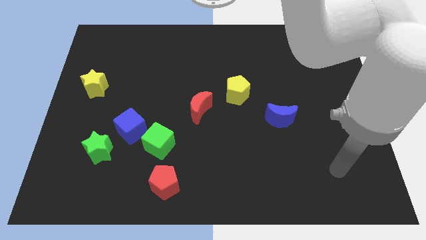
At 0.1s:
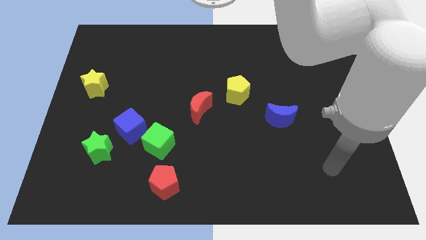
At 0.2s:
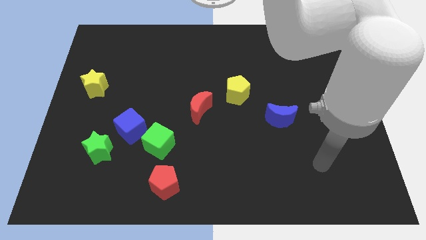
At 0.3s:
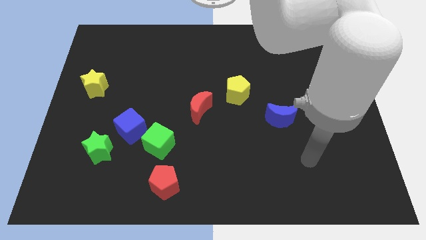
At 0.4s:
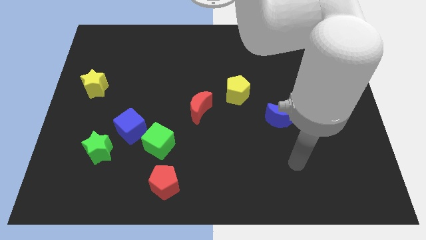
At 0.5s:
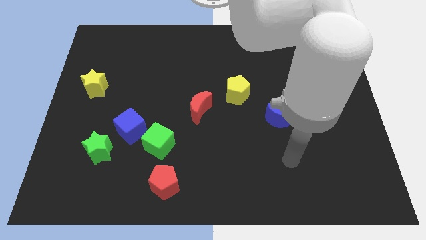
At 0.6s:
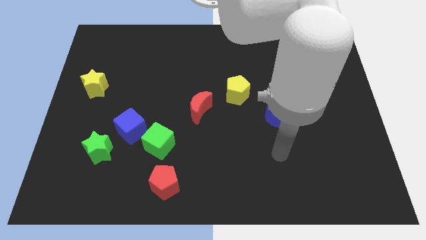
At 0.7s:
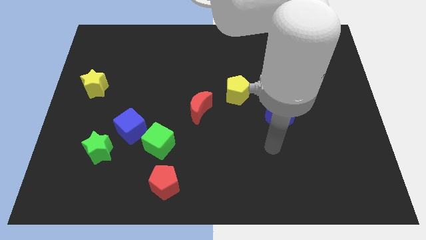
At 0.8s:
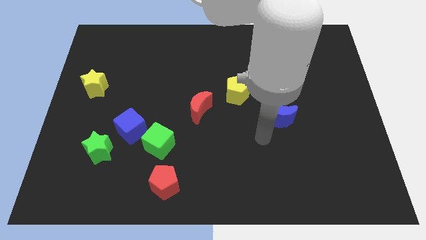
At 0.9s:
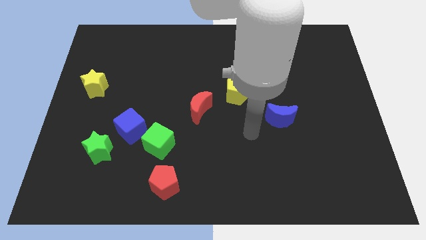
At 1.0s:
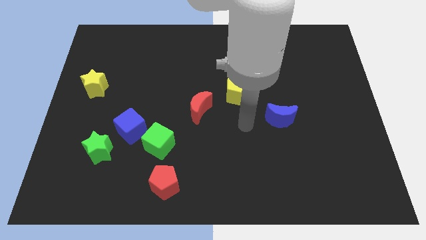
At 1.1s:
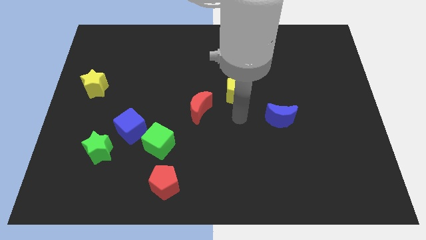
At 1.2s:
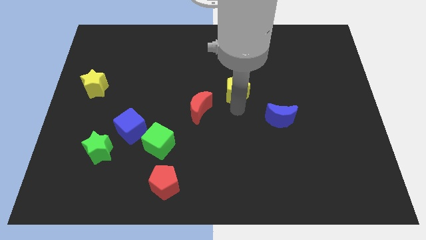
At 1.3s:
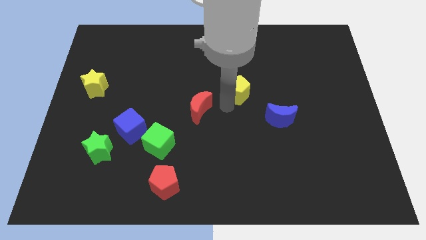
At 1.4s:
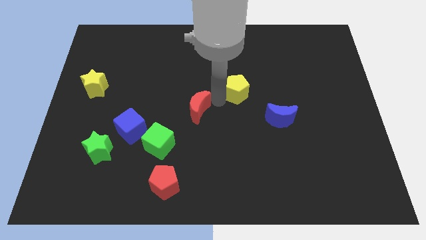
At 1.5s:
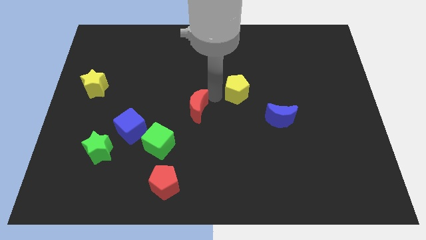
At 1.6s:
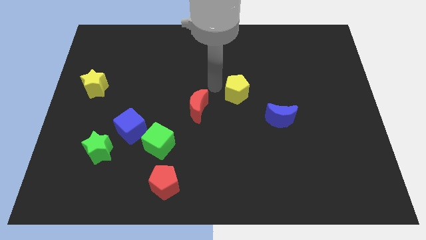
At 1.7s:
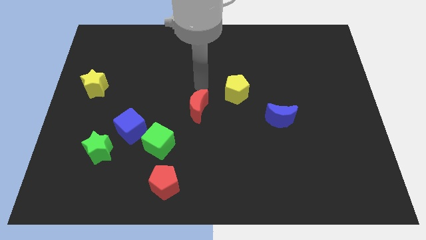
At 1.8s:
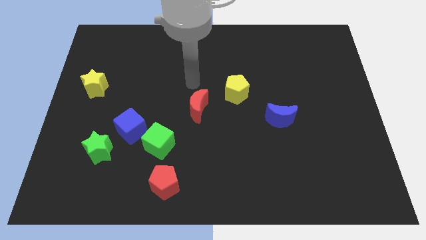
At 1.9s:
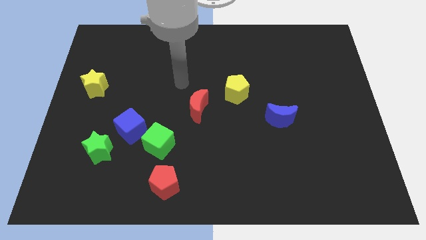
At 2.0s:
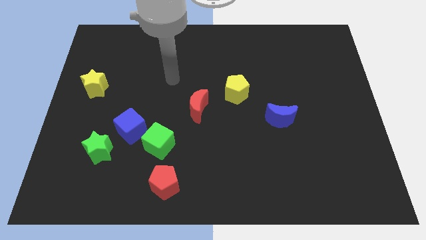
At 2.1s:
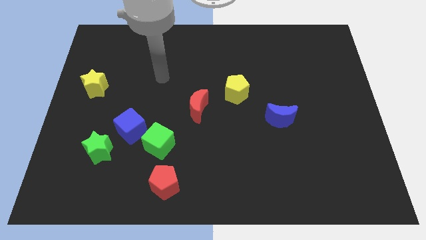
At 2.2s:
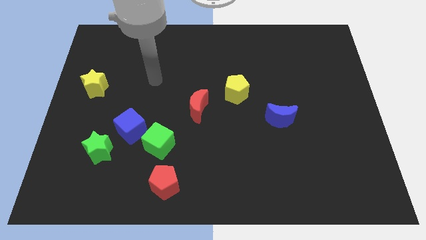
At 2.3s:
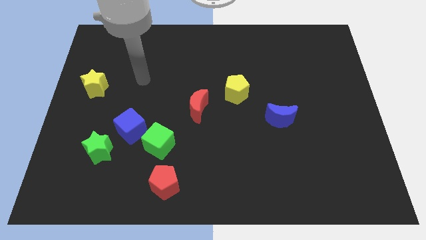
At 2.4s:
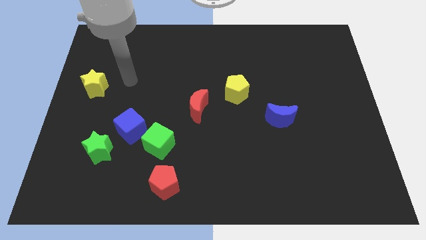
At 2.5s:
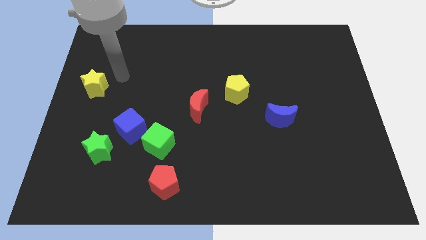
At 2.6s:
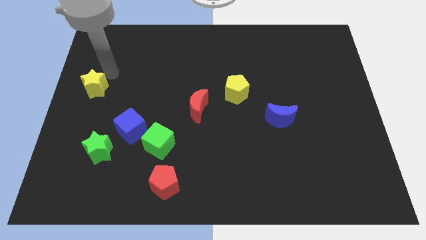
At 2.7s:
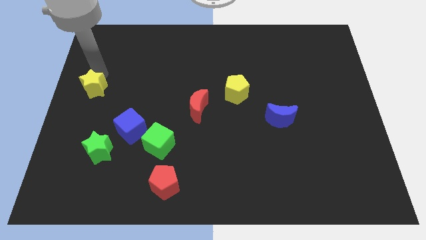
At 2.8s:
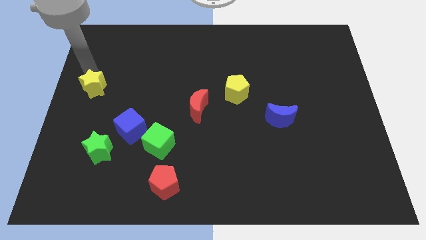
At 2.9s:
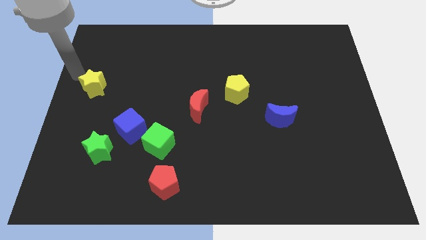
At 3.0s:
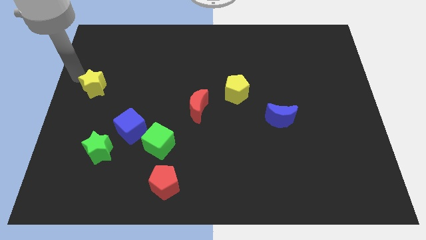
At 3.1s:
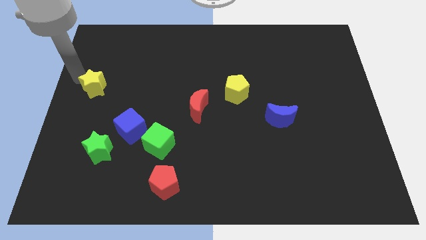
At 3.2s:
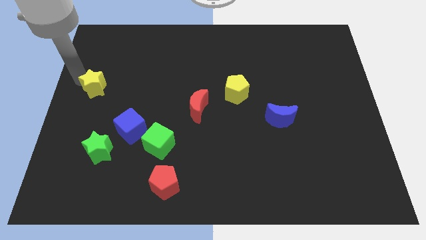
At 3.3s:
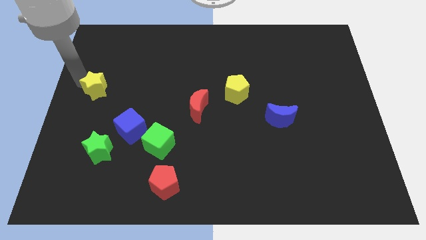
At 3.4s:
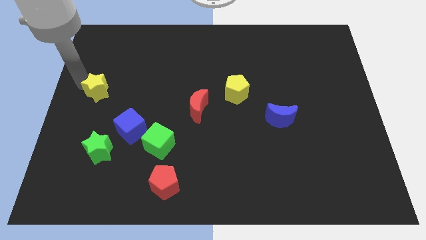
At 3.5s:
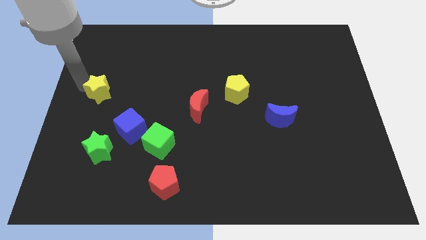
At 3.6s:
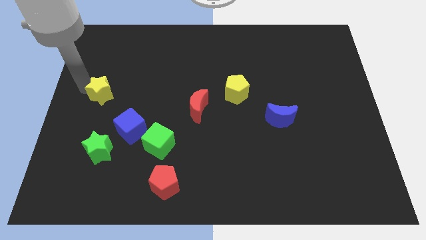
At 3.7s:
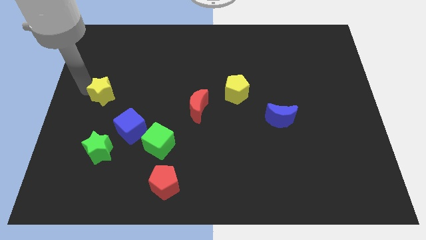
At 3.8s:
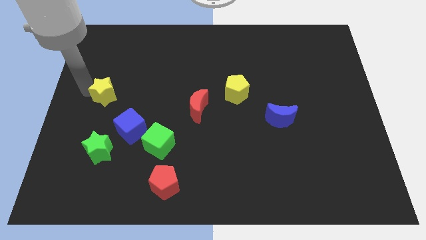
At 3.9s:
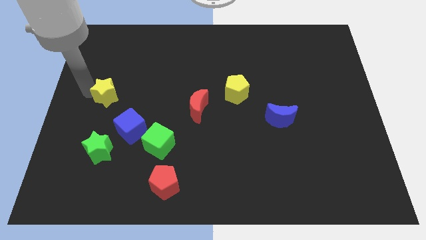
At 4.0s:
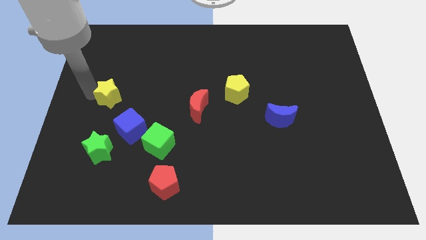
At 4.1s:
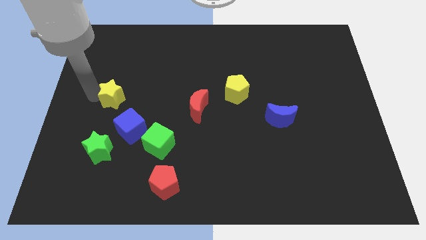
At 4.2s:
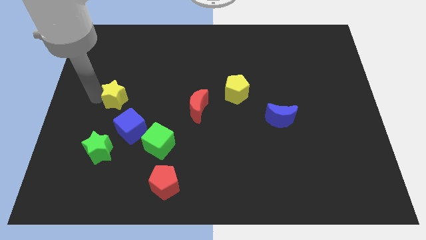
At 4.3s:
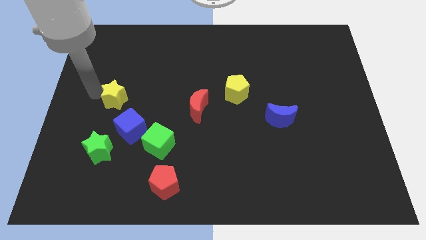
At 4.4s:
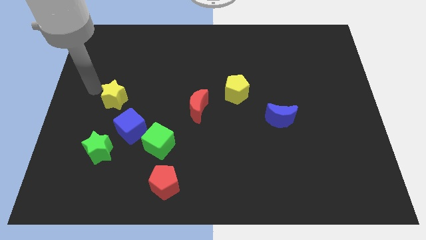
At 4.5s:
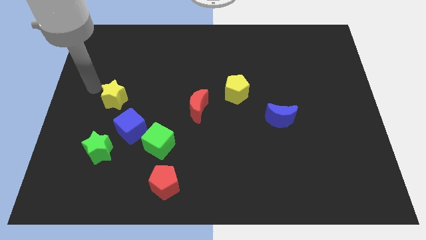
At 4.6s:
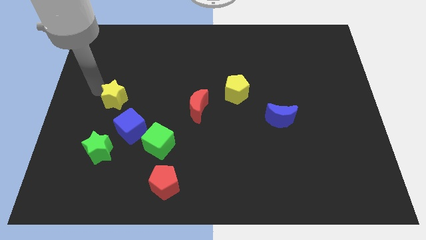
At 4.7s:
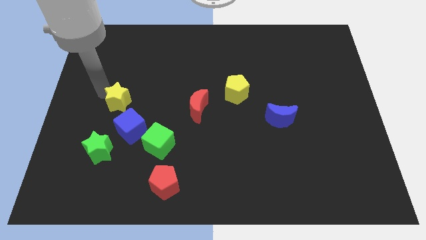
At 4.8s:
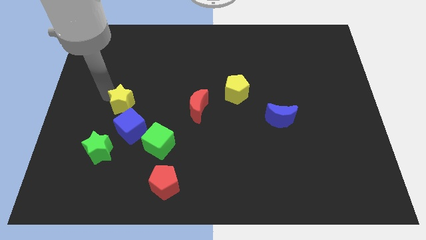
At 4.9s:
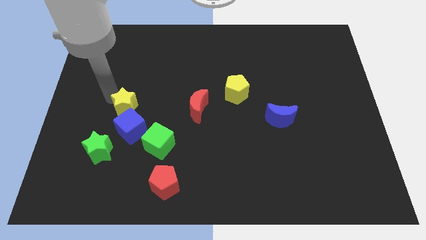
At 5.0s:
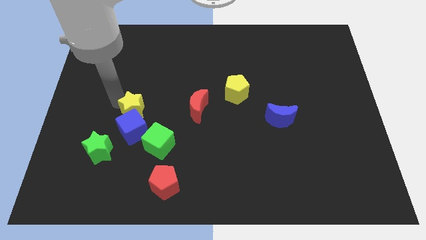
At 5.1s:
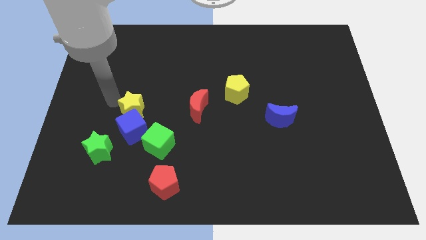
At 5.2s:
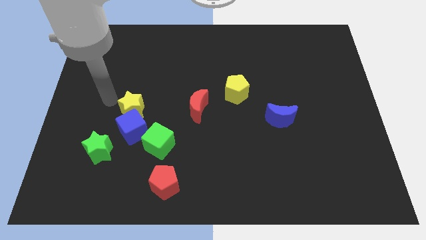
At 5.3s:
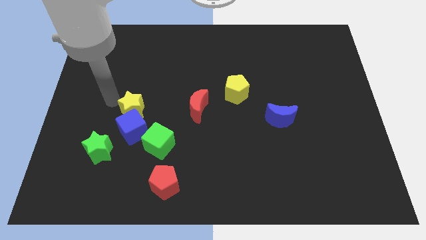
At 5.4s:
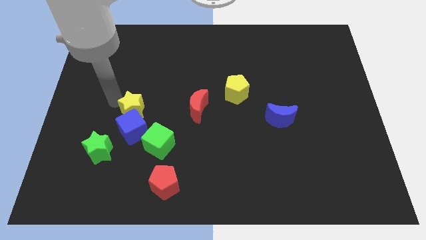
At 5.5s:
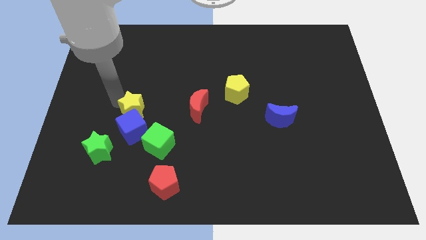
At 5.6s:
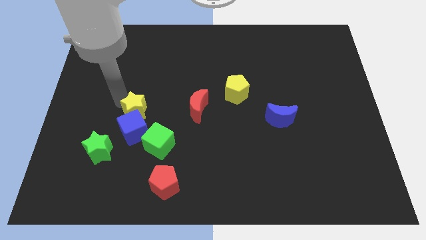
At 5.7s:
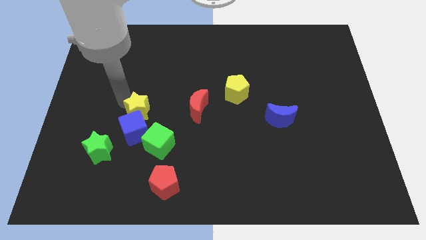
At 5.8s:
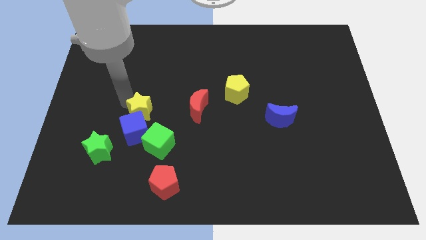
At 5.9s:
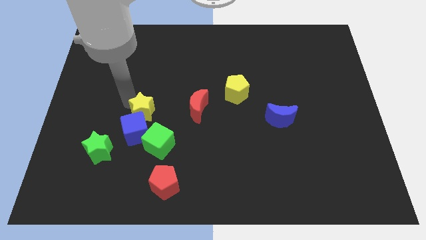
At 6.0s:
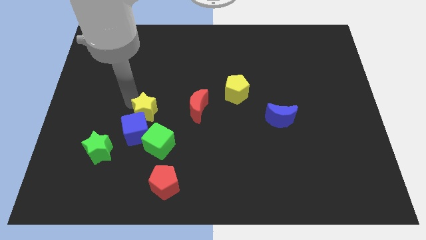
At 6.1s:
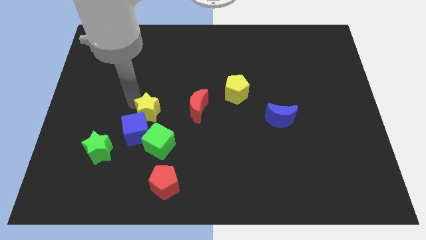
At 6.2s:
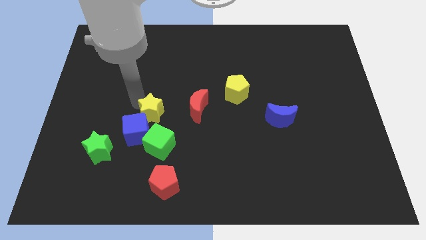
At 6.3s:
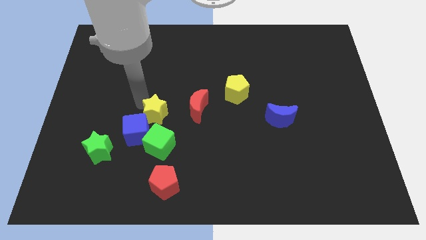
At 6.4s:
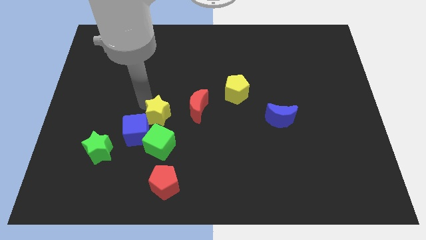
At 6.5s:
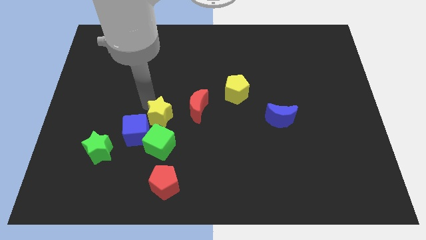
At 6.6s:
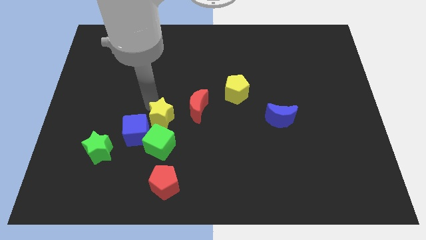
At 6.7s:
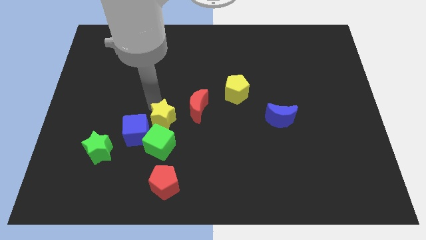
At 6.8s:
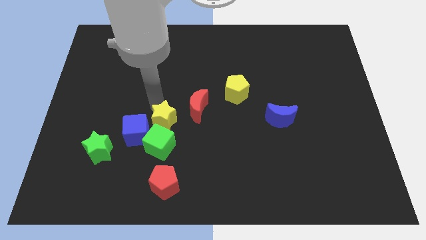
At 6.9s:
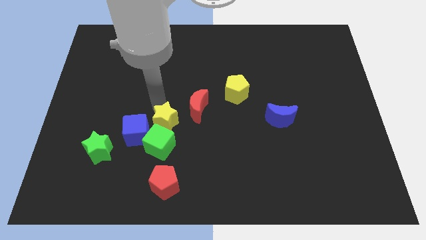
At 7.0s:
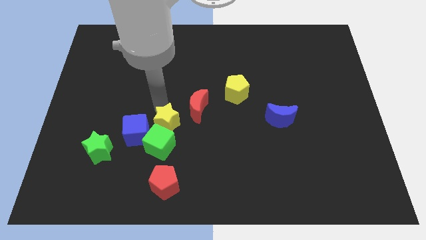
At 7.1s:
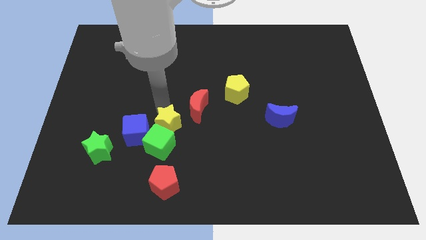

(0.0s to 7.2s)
move the yellow star diagonally down and to the right

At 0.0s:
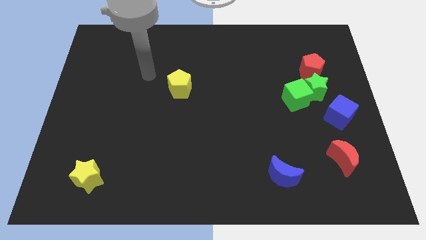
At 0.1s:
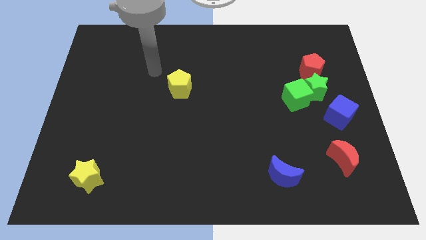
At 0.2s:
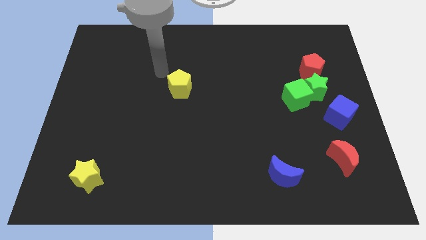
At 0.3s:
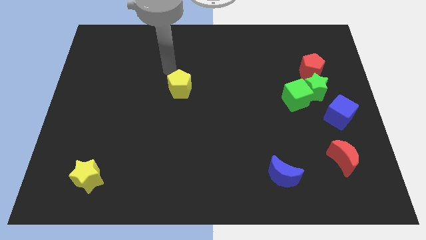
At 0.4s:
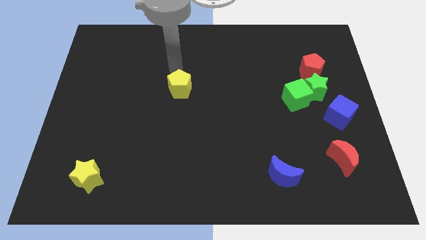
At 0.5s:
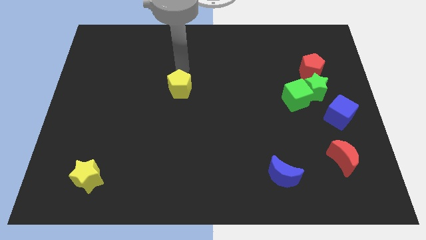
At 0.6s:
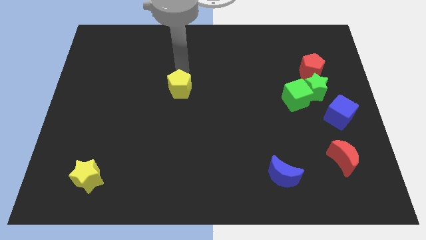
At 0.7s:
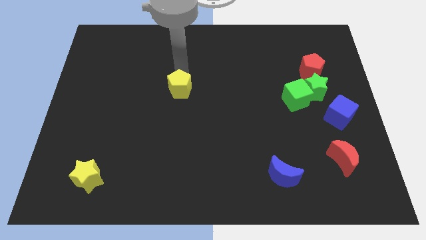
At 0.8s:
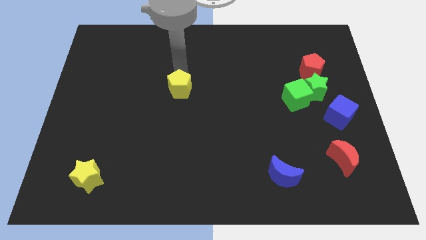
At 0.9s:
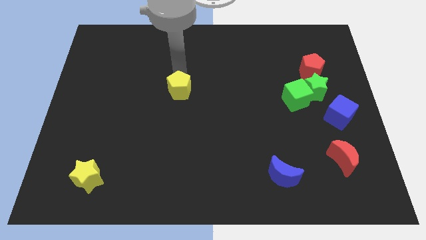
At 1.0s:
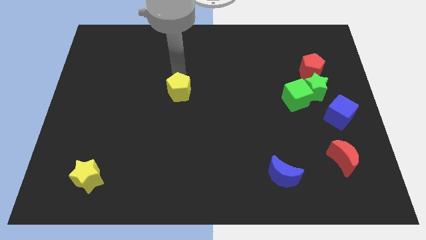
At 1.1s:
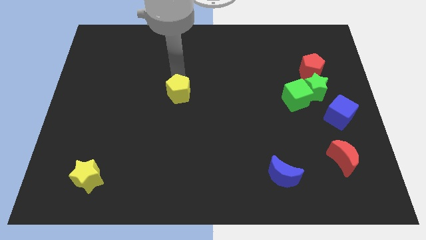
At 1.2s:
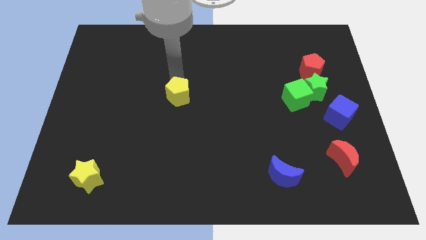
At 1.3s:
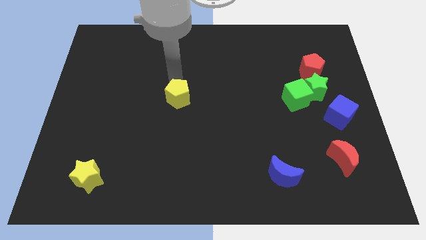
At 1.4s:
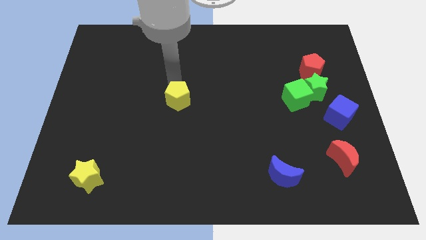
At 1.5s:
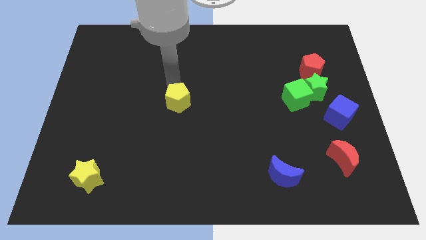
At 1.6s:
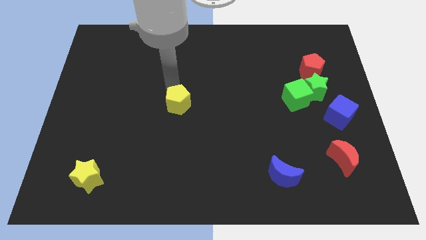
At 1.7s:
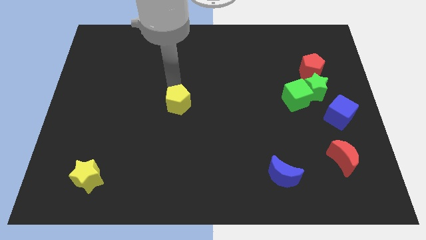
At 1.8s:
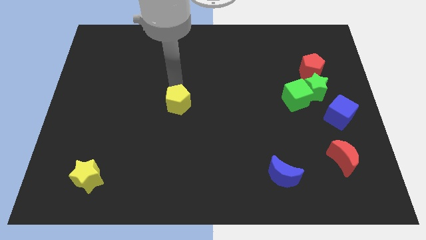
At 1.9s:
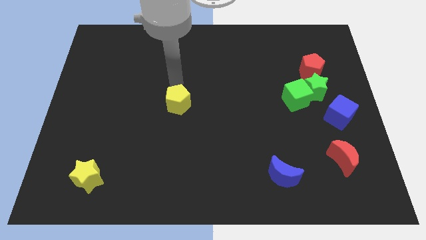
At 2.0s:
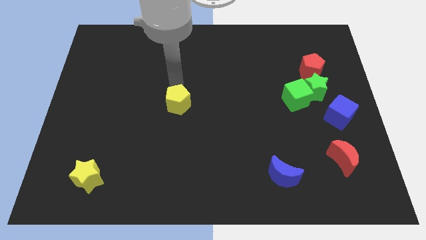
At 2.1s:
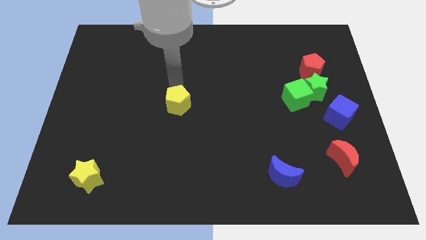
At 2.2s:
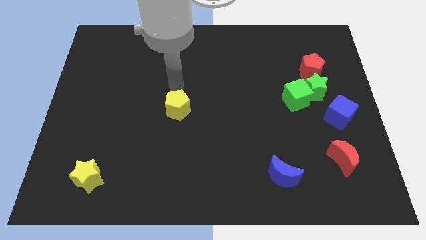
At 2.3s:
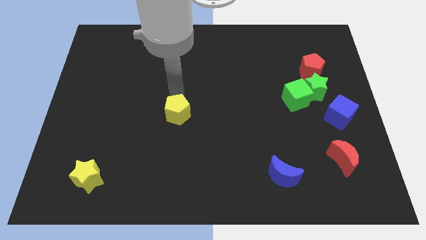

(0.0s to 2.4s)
slide the yellow pentagon a little downwards
